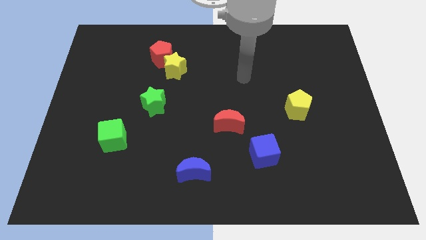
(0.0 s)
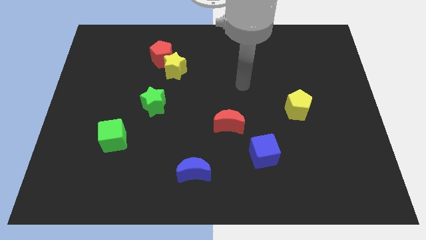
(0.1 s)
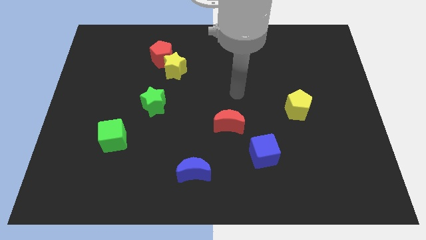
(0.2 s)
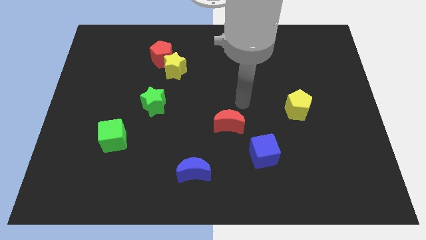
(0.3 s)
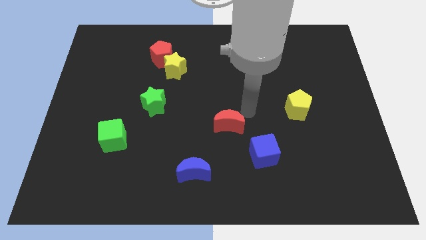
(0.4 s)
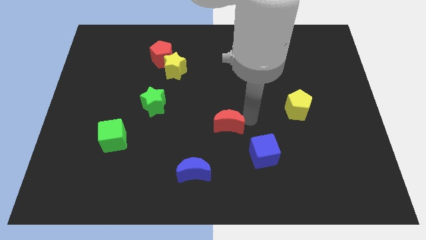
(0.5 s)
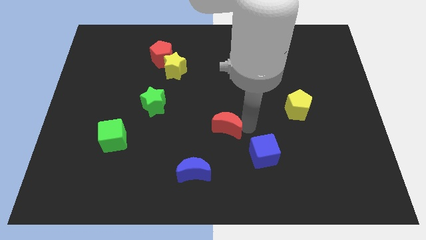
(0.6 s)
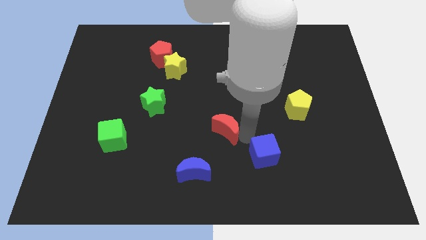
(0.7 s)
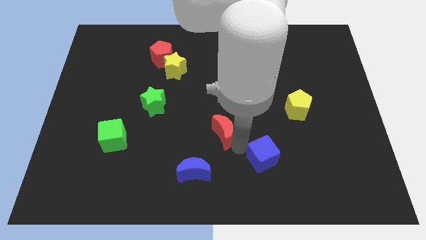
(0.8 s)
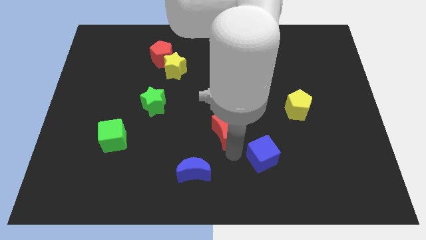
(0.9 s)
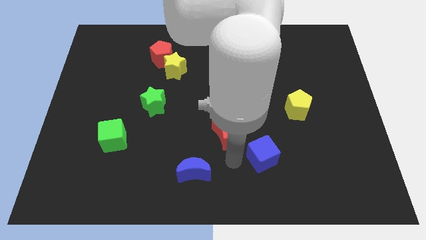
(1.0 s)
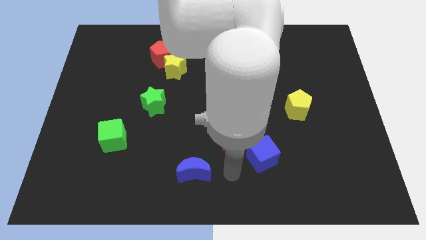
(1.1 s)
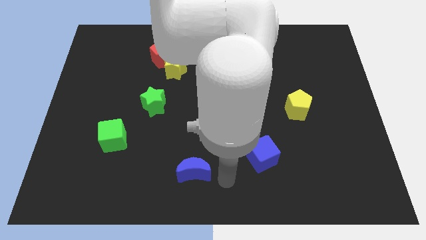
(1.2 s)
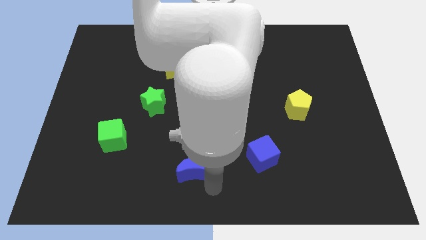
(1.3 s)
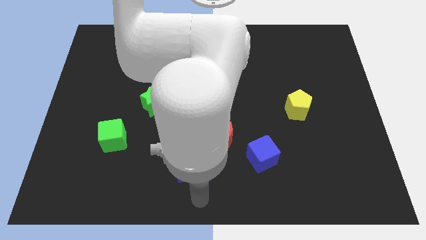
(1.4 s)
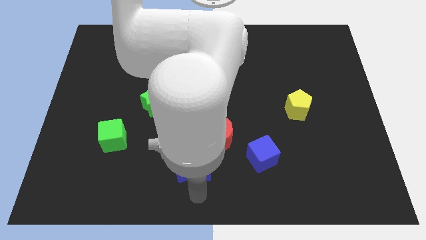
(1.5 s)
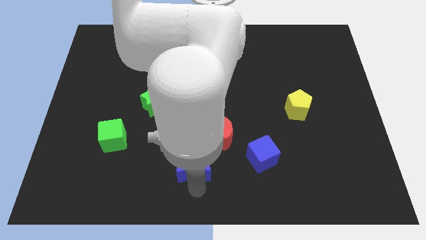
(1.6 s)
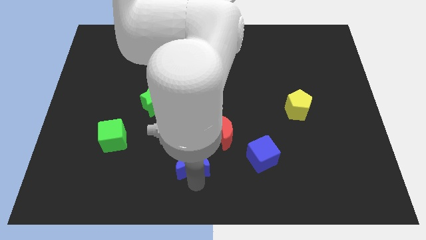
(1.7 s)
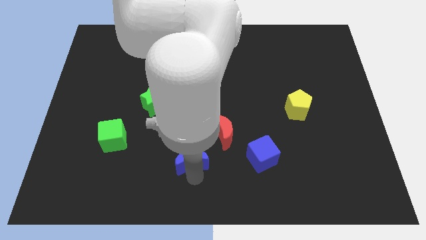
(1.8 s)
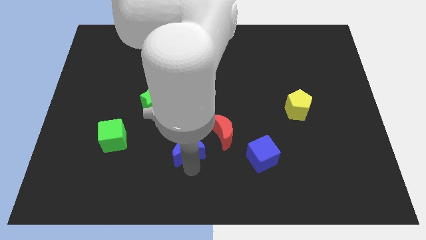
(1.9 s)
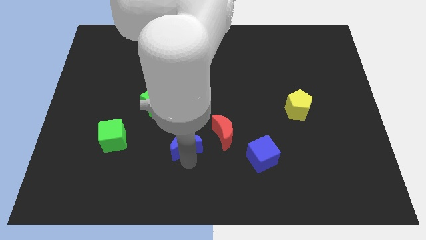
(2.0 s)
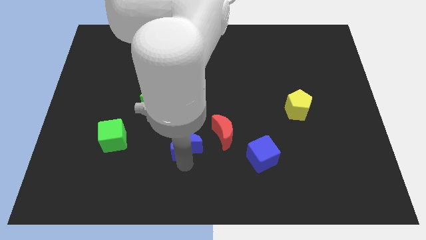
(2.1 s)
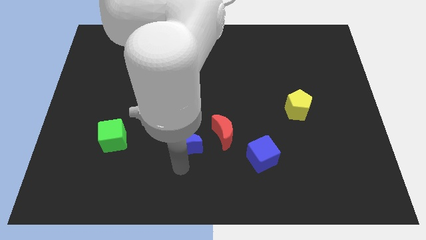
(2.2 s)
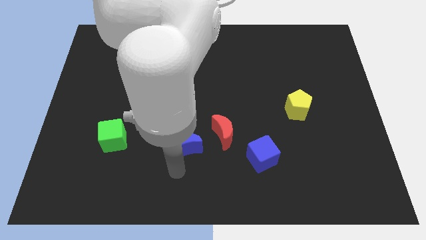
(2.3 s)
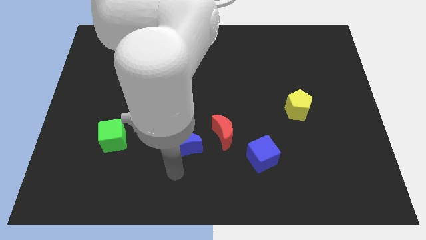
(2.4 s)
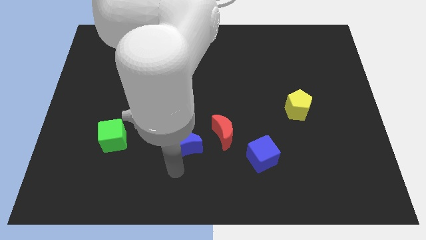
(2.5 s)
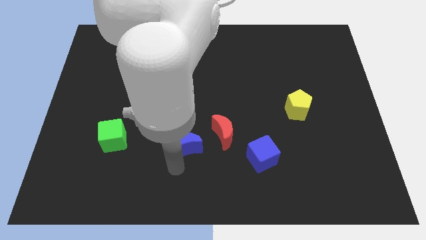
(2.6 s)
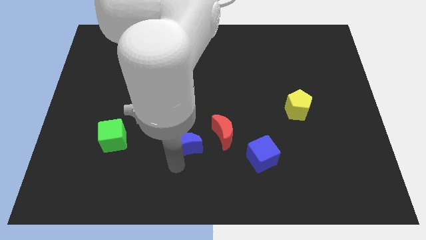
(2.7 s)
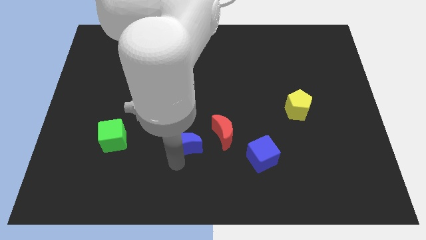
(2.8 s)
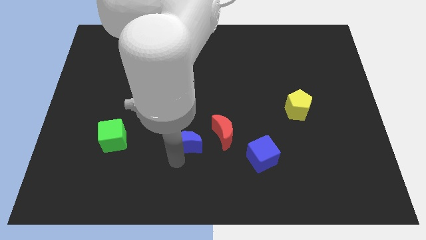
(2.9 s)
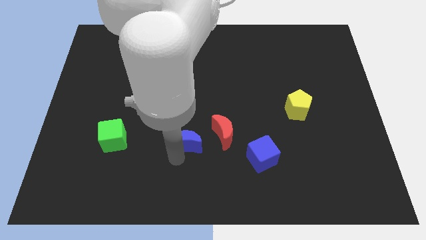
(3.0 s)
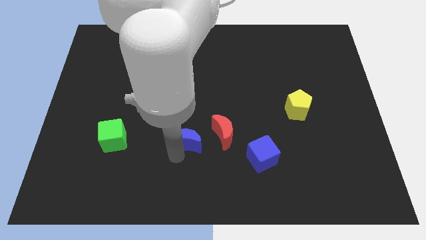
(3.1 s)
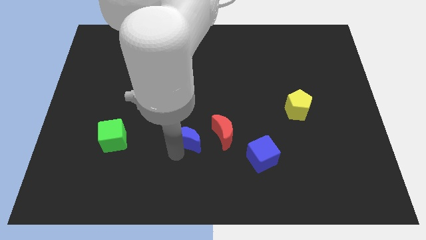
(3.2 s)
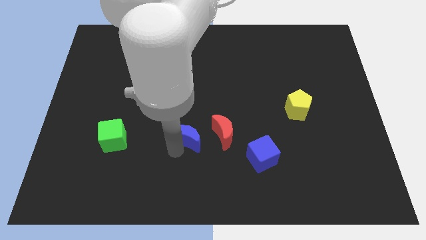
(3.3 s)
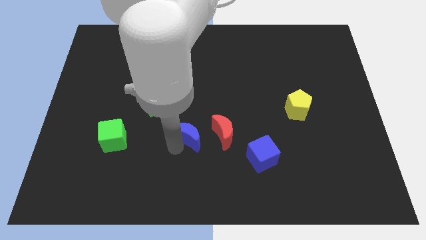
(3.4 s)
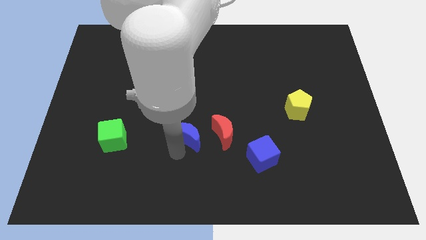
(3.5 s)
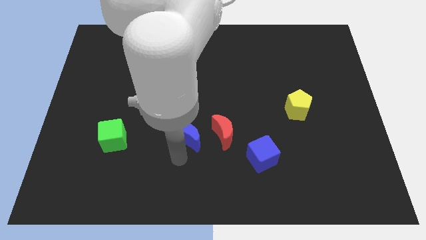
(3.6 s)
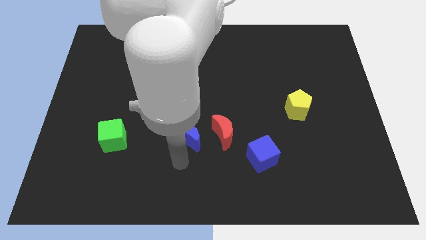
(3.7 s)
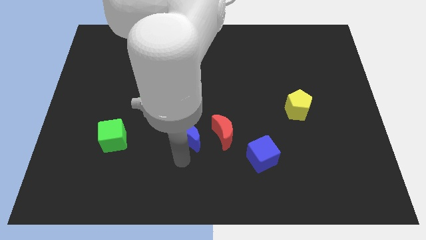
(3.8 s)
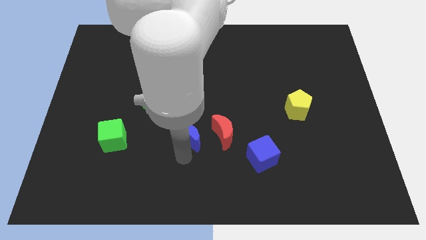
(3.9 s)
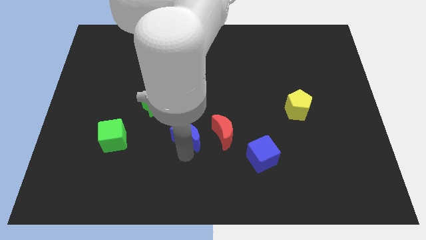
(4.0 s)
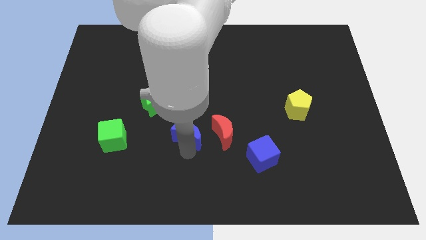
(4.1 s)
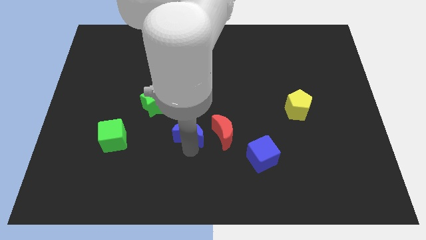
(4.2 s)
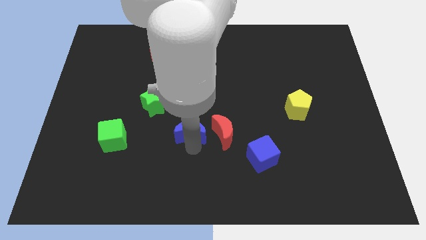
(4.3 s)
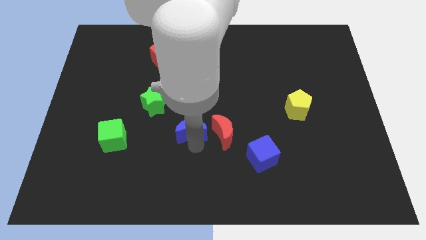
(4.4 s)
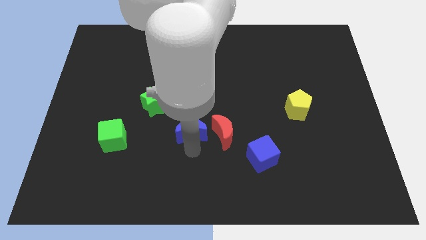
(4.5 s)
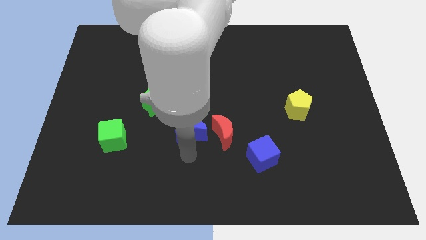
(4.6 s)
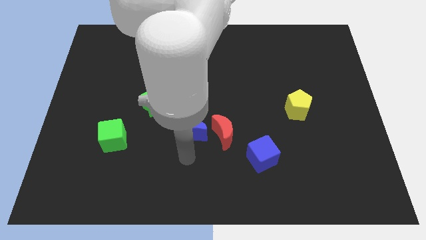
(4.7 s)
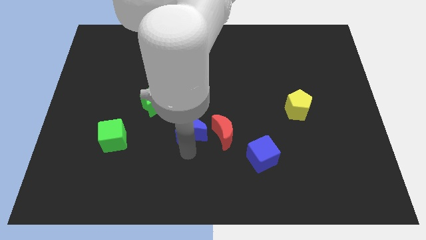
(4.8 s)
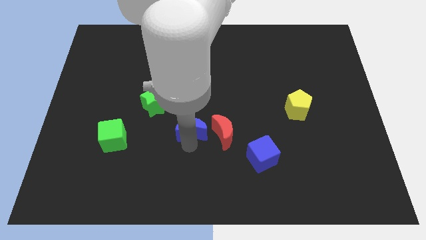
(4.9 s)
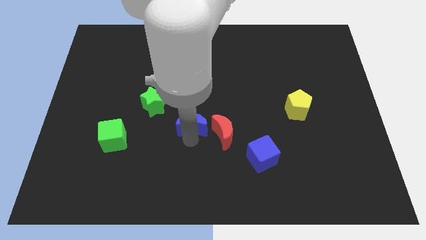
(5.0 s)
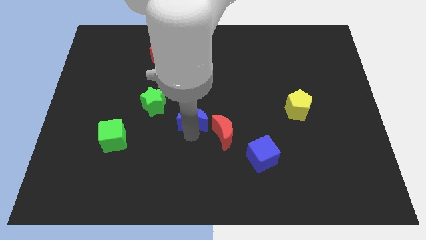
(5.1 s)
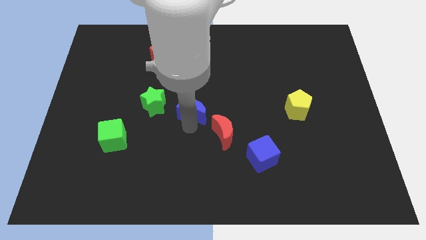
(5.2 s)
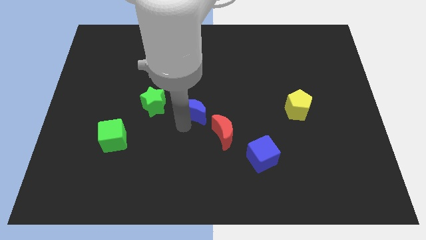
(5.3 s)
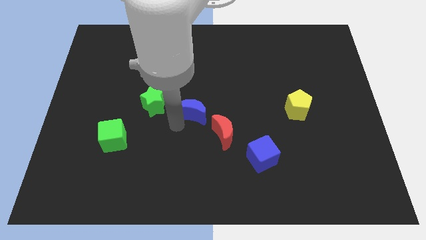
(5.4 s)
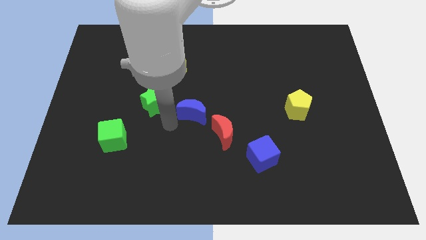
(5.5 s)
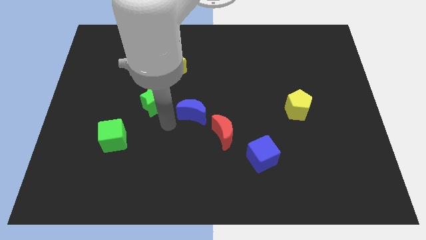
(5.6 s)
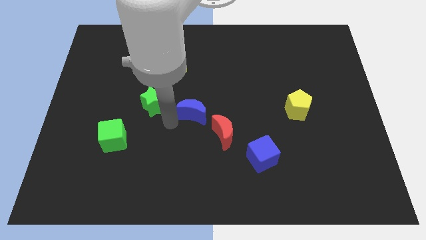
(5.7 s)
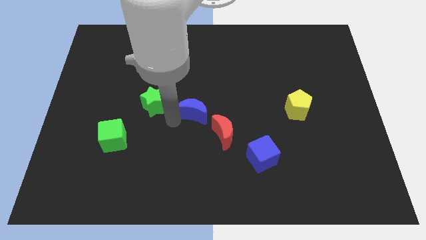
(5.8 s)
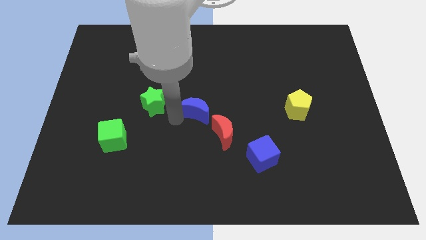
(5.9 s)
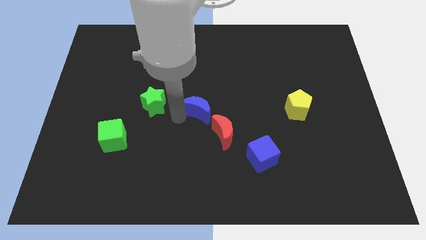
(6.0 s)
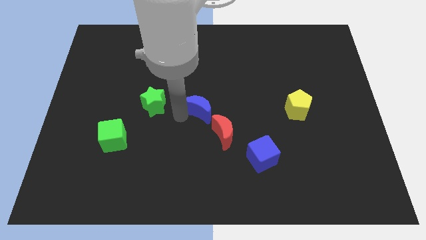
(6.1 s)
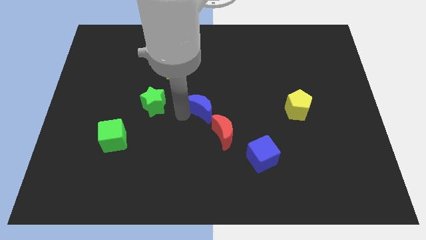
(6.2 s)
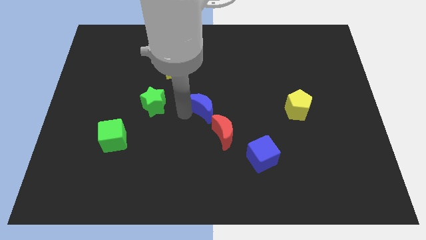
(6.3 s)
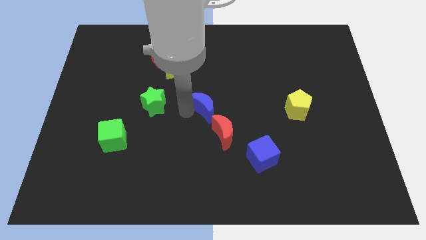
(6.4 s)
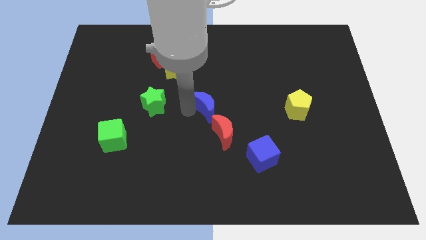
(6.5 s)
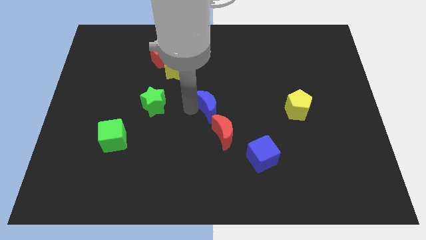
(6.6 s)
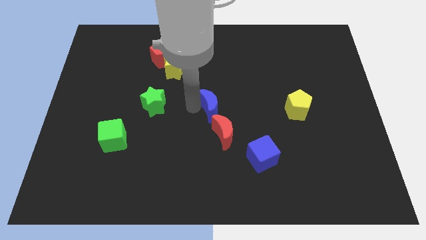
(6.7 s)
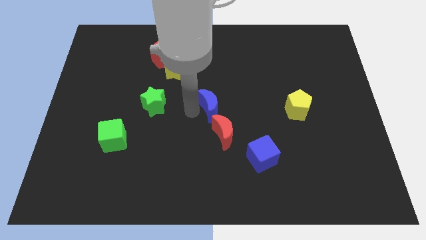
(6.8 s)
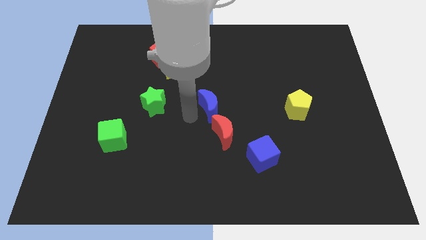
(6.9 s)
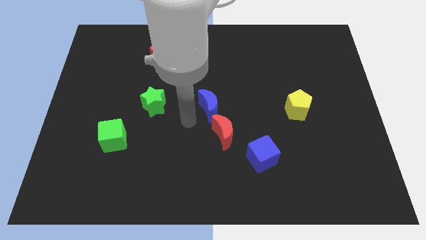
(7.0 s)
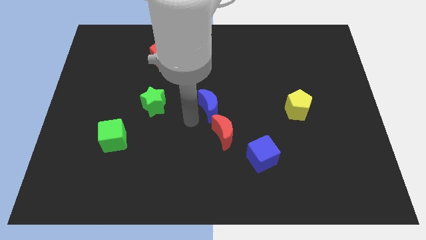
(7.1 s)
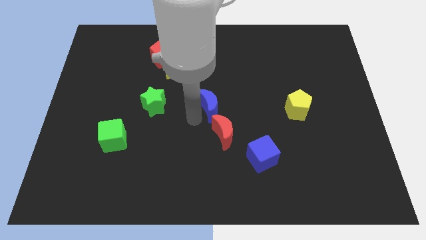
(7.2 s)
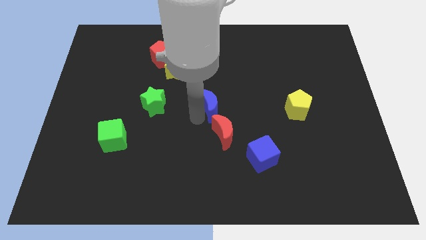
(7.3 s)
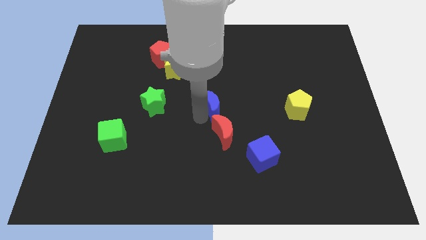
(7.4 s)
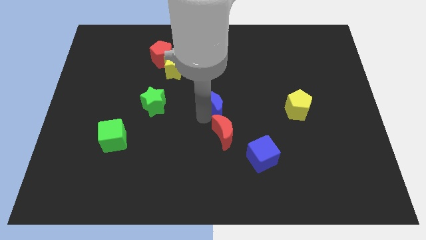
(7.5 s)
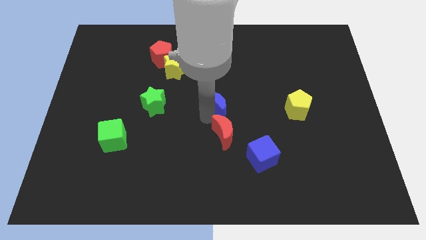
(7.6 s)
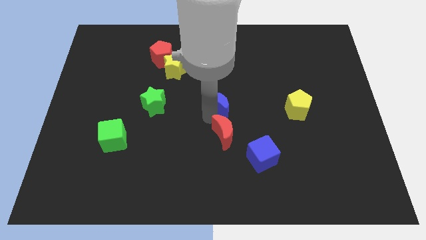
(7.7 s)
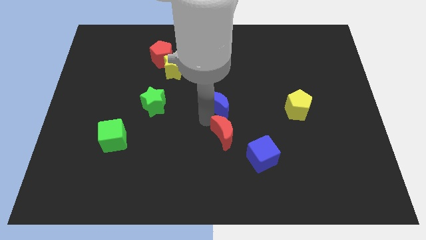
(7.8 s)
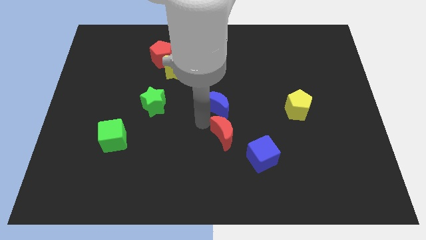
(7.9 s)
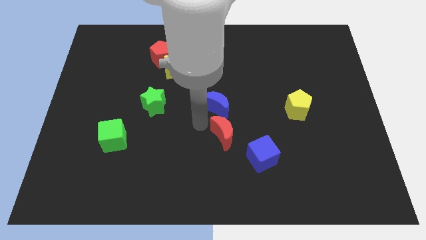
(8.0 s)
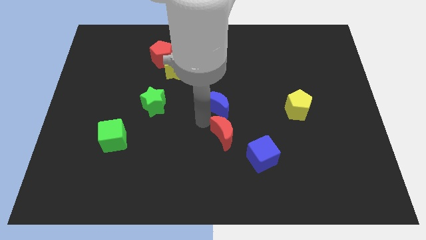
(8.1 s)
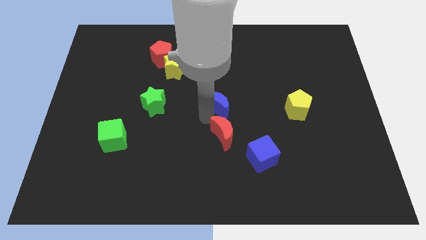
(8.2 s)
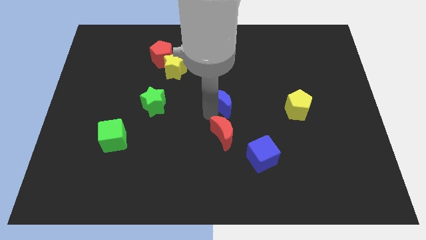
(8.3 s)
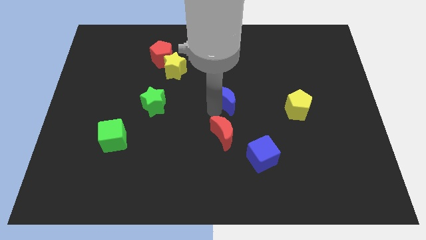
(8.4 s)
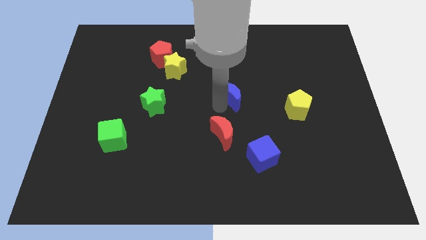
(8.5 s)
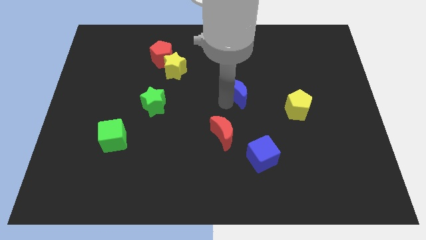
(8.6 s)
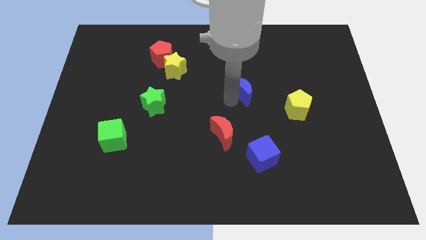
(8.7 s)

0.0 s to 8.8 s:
push the blue moon upwards and right
